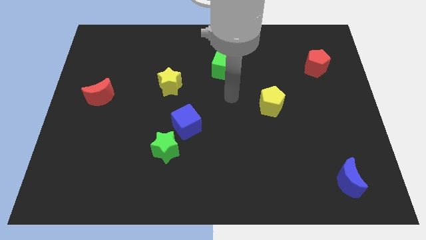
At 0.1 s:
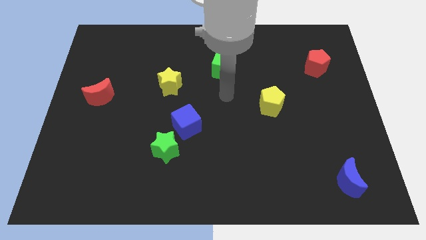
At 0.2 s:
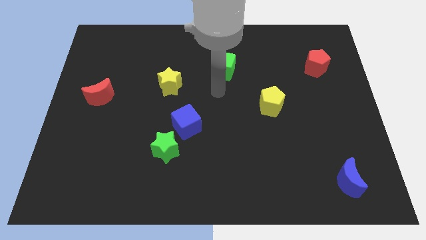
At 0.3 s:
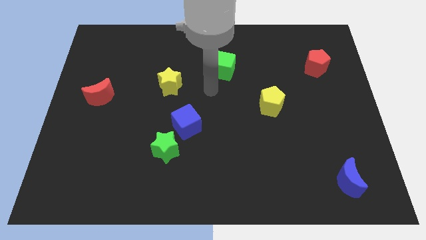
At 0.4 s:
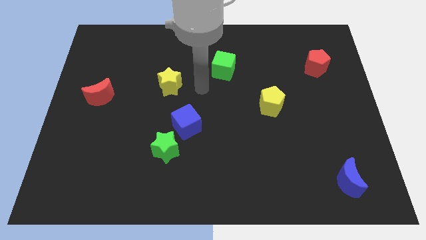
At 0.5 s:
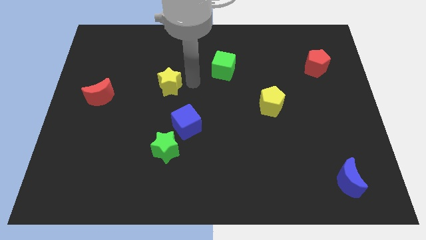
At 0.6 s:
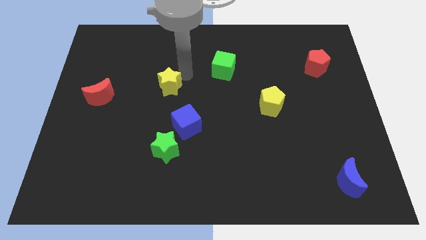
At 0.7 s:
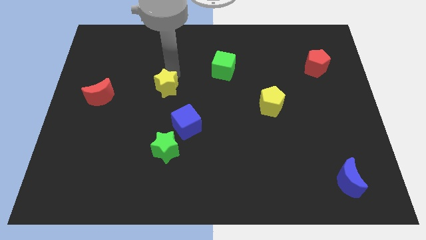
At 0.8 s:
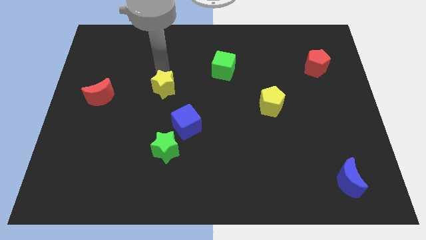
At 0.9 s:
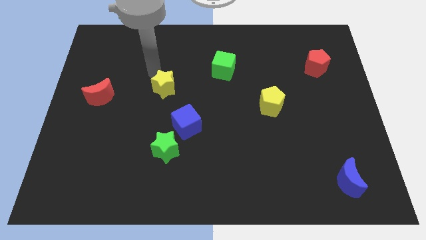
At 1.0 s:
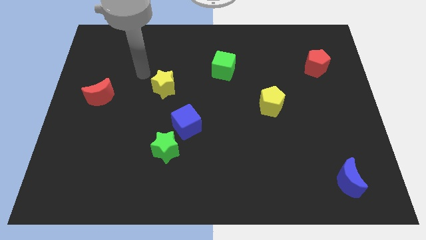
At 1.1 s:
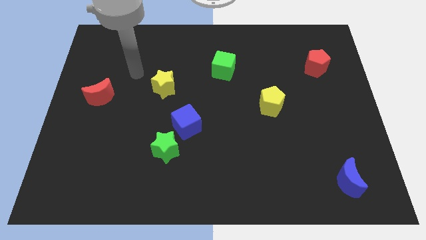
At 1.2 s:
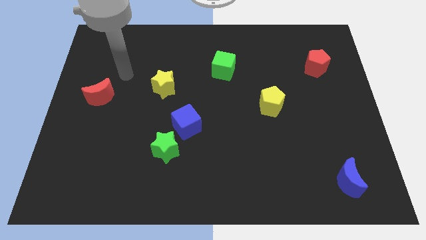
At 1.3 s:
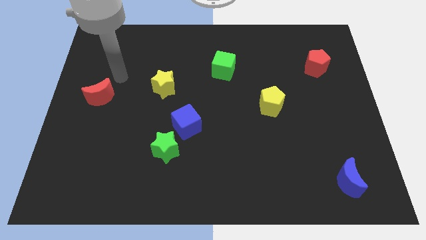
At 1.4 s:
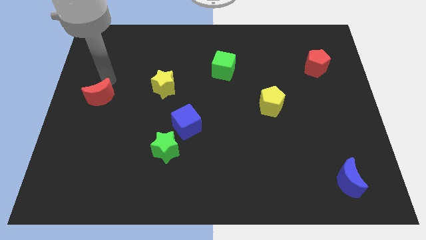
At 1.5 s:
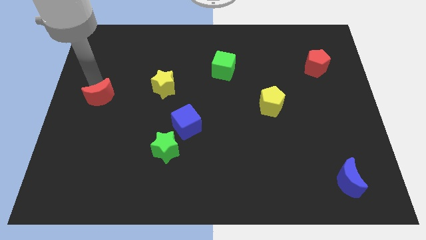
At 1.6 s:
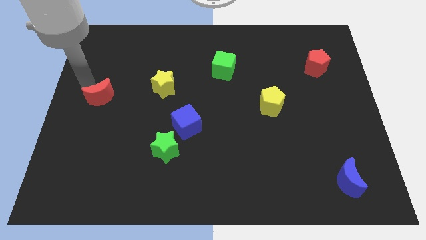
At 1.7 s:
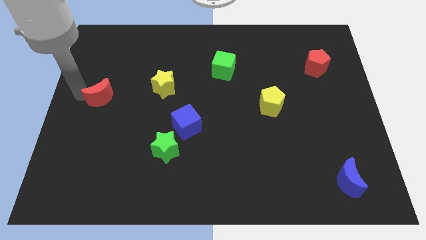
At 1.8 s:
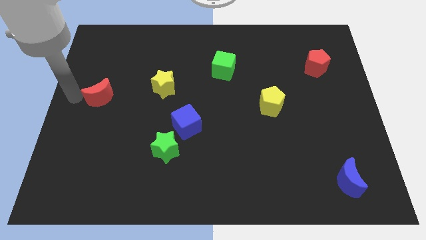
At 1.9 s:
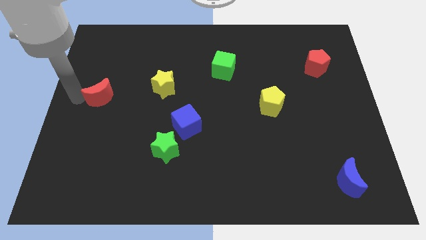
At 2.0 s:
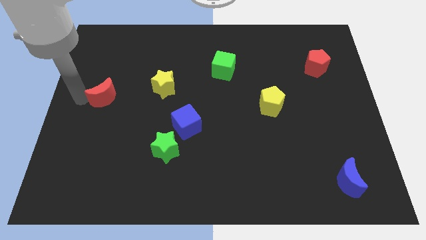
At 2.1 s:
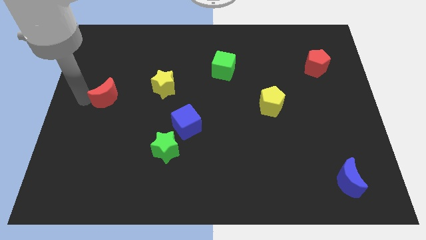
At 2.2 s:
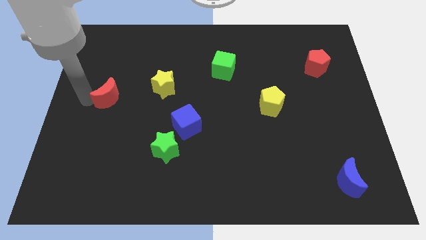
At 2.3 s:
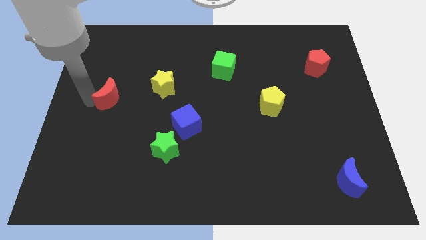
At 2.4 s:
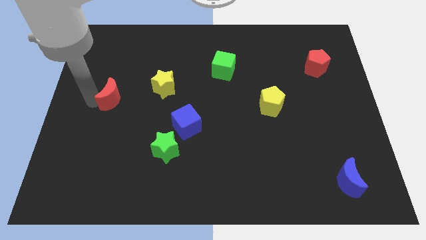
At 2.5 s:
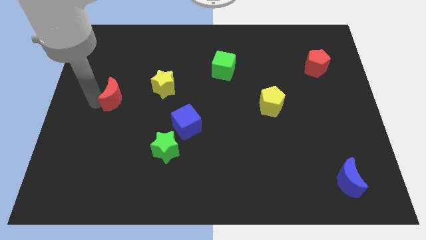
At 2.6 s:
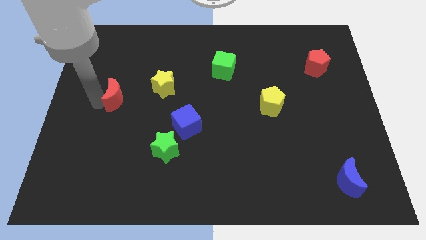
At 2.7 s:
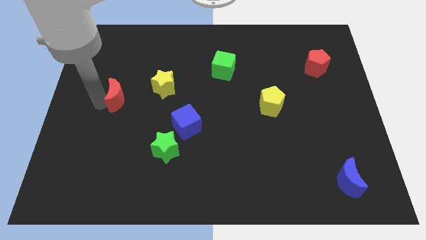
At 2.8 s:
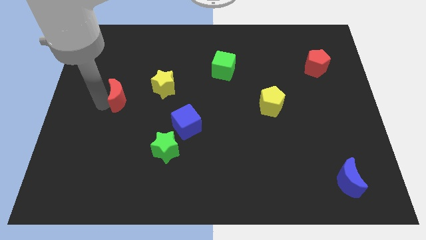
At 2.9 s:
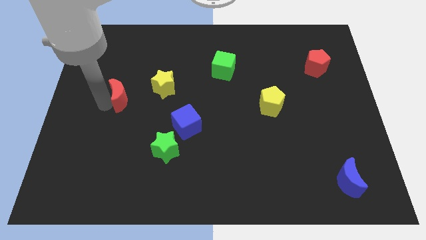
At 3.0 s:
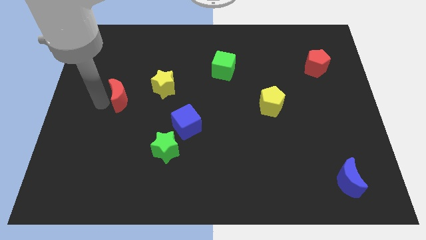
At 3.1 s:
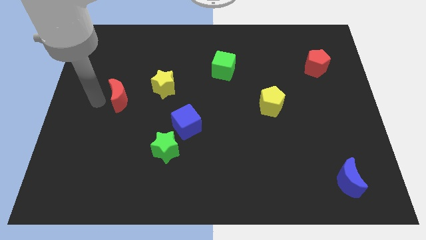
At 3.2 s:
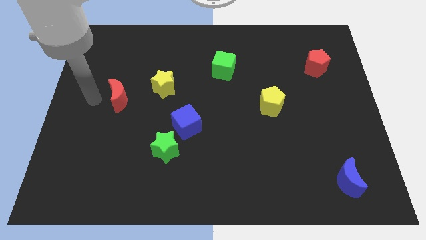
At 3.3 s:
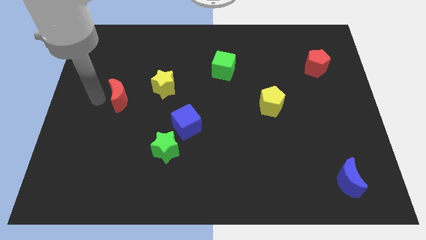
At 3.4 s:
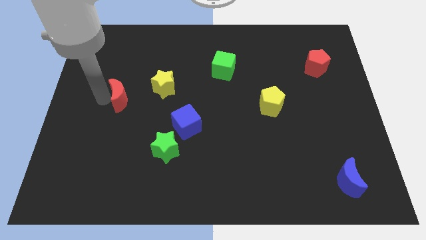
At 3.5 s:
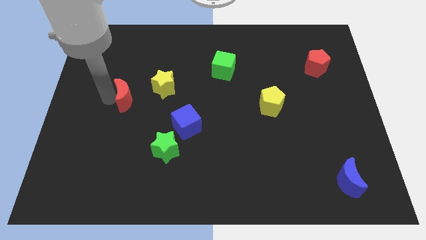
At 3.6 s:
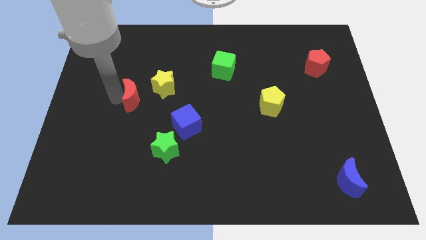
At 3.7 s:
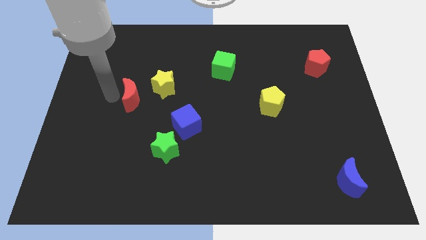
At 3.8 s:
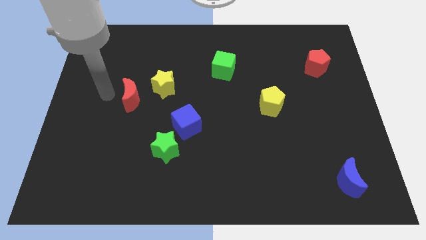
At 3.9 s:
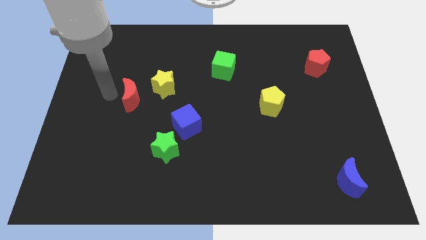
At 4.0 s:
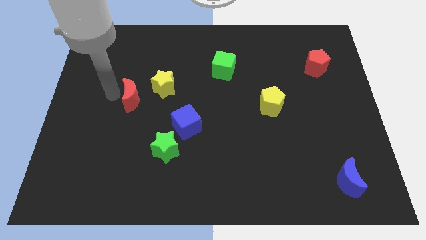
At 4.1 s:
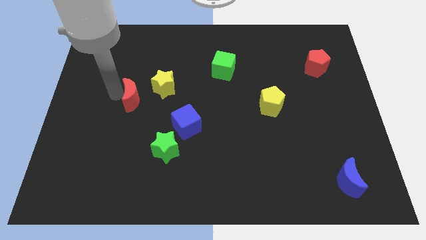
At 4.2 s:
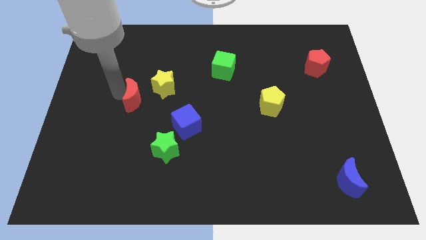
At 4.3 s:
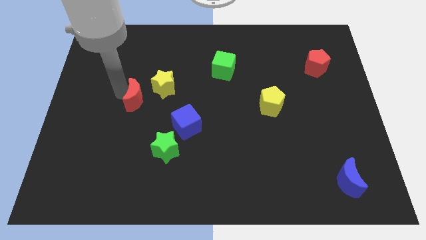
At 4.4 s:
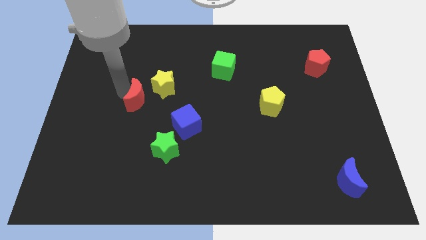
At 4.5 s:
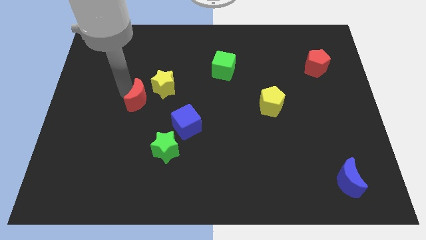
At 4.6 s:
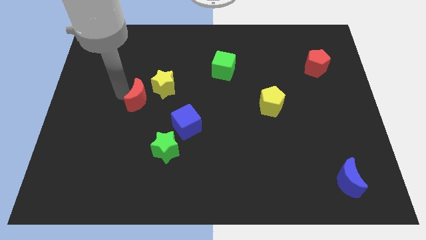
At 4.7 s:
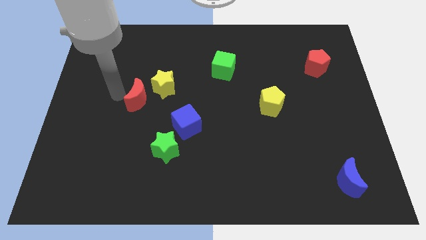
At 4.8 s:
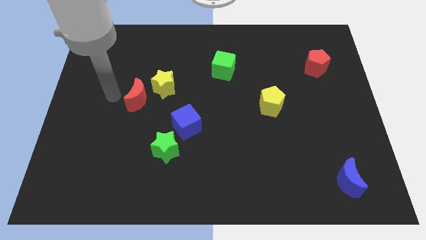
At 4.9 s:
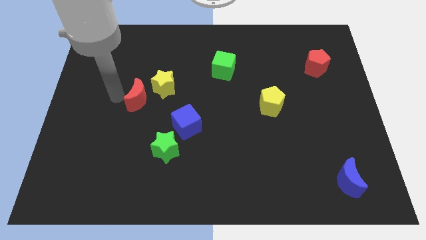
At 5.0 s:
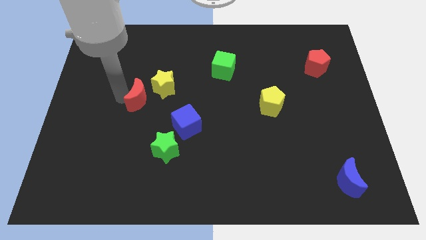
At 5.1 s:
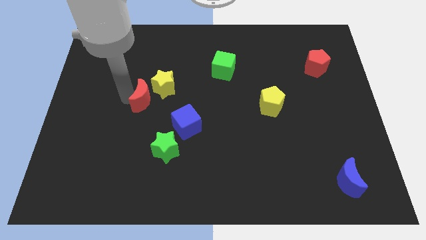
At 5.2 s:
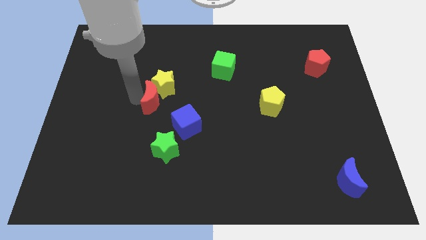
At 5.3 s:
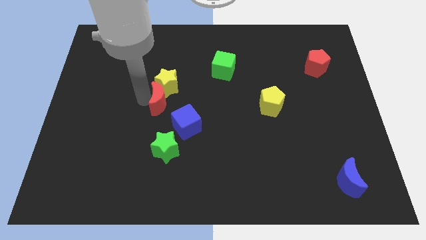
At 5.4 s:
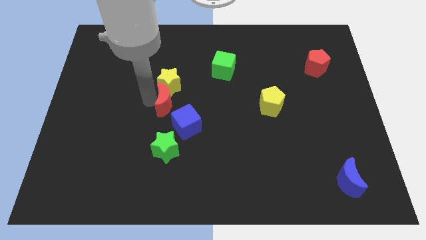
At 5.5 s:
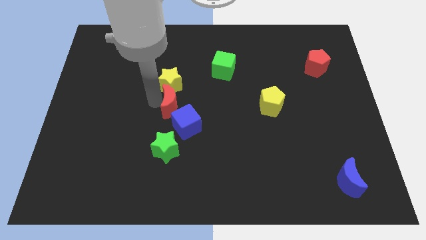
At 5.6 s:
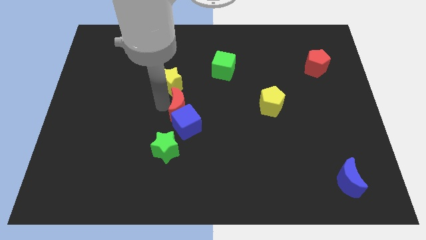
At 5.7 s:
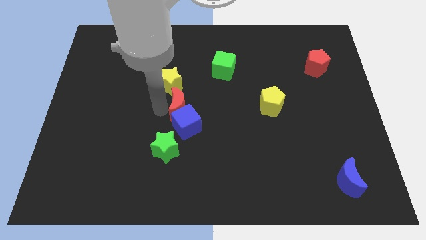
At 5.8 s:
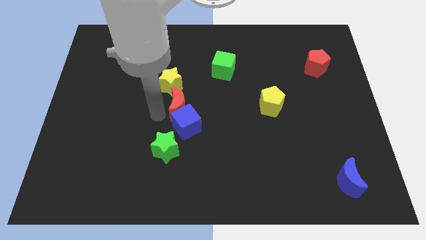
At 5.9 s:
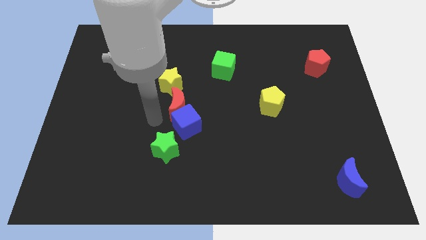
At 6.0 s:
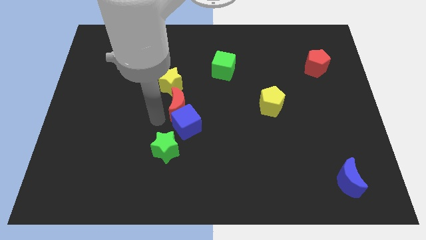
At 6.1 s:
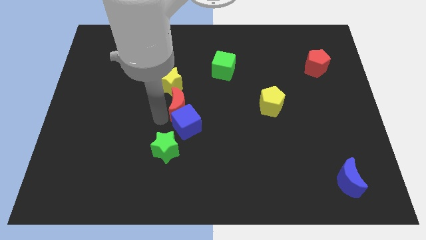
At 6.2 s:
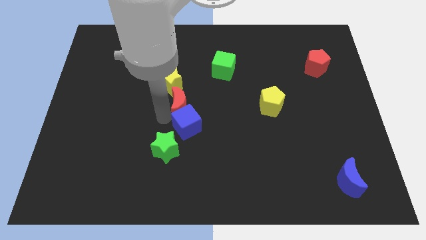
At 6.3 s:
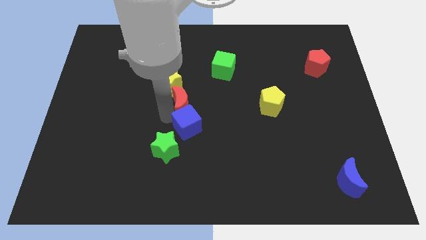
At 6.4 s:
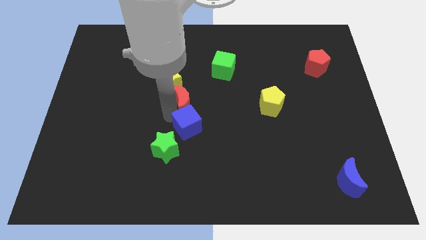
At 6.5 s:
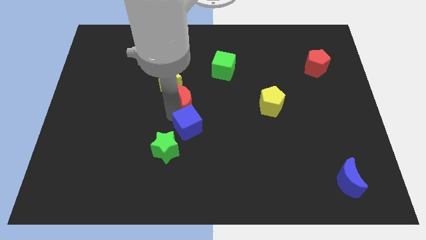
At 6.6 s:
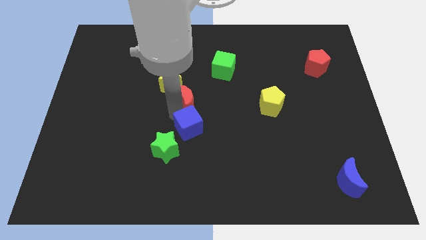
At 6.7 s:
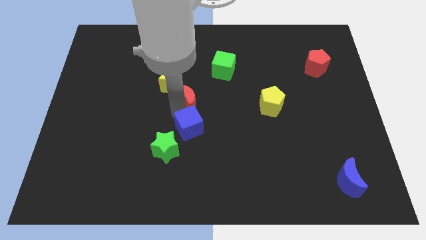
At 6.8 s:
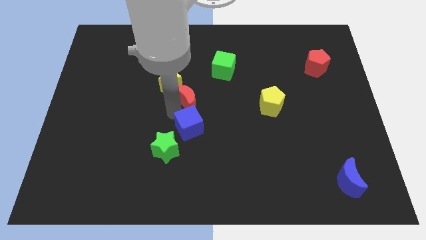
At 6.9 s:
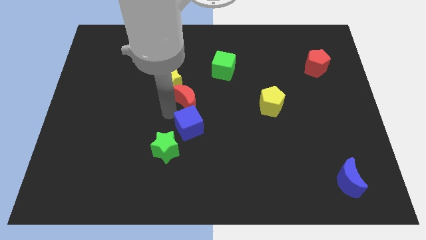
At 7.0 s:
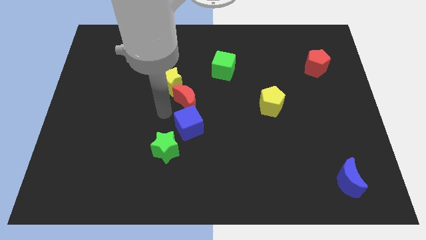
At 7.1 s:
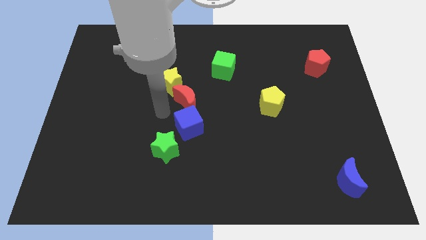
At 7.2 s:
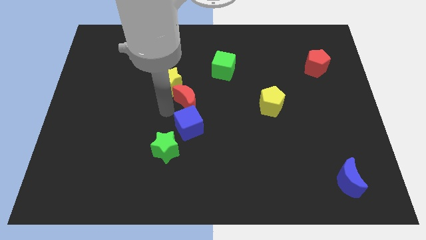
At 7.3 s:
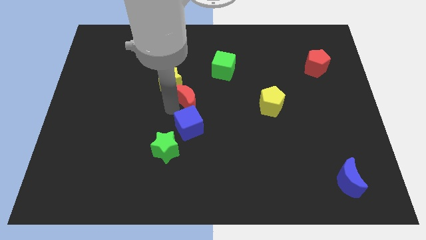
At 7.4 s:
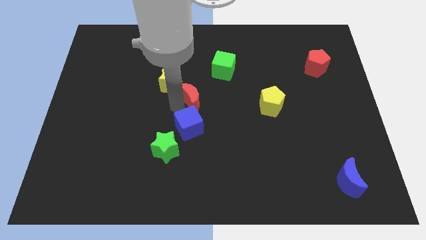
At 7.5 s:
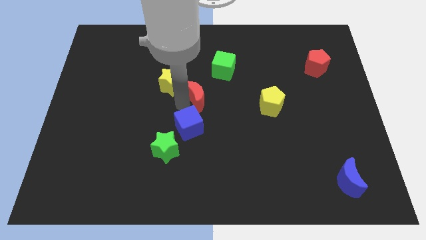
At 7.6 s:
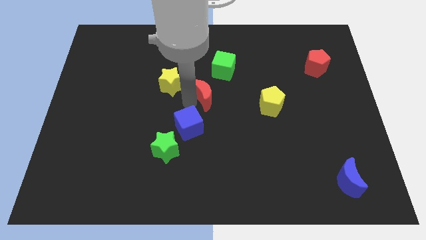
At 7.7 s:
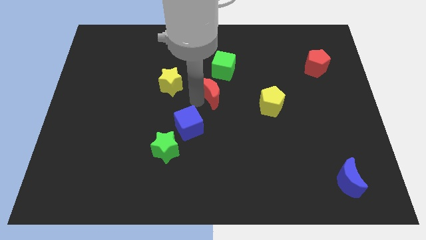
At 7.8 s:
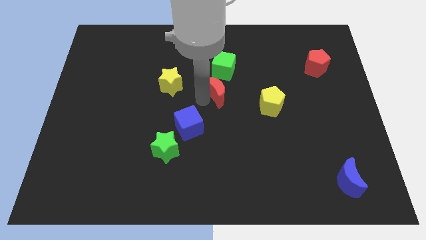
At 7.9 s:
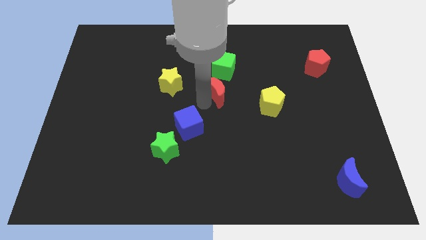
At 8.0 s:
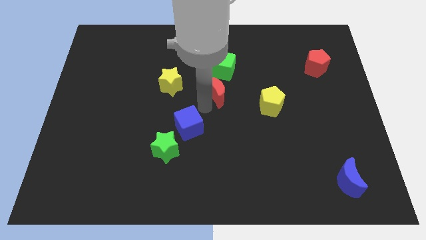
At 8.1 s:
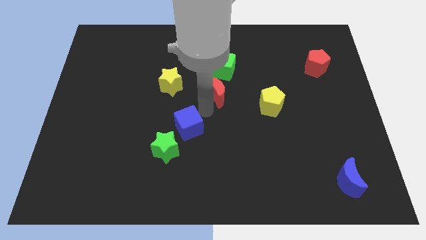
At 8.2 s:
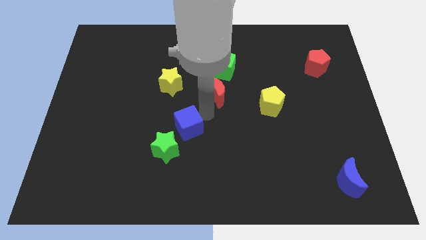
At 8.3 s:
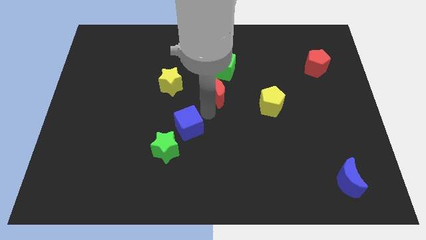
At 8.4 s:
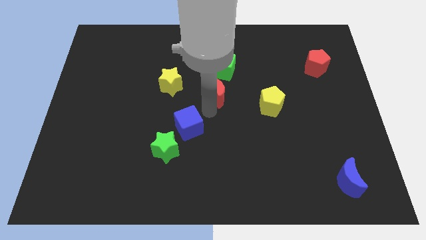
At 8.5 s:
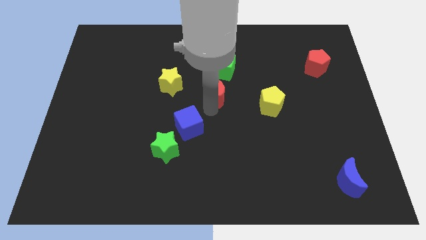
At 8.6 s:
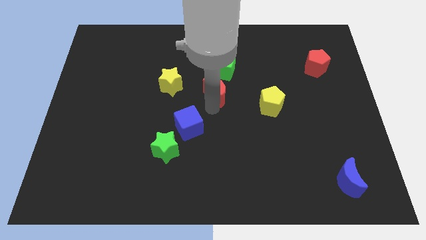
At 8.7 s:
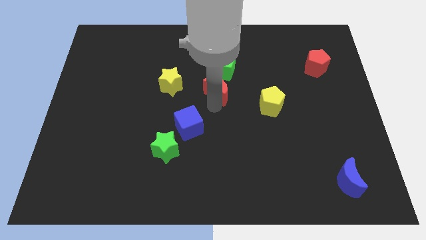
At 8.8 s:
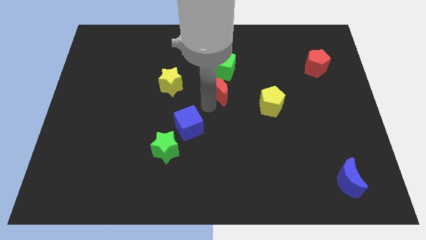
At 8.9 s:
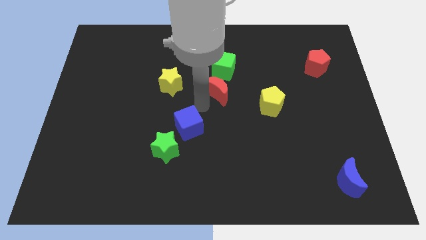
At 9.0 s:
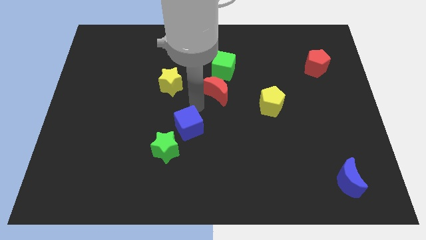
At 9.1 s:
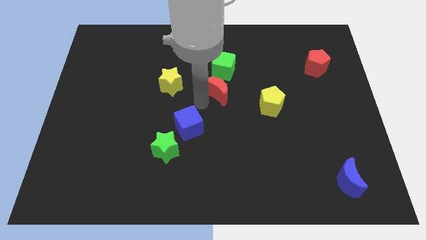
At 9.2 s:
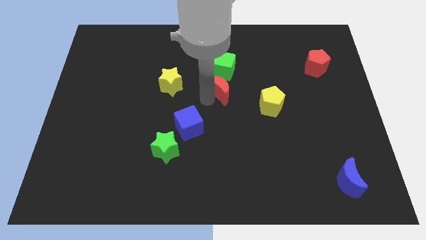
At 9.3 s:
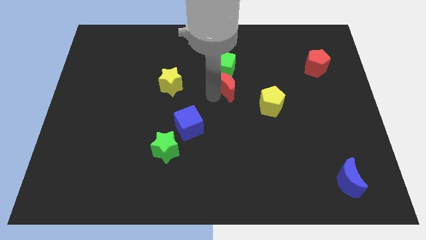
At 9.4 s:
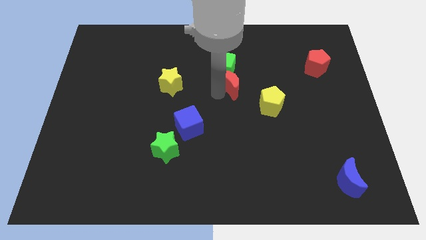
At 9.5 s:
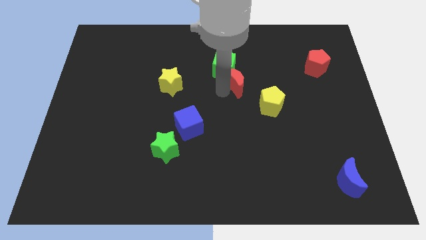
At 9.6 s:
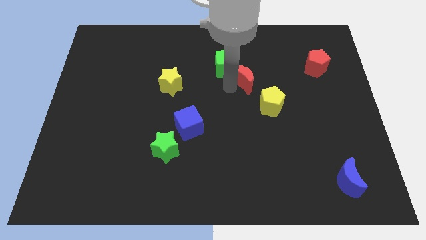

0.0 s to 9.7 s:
move the red moon right of the green cube
